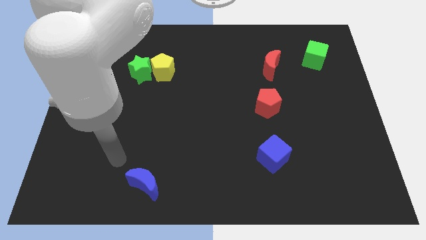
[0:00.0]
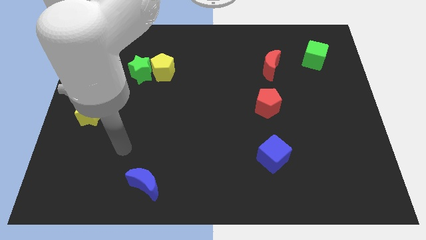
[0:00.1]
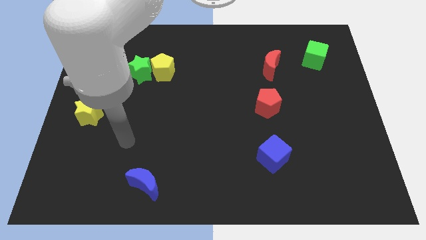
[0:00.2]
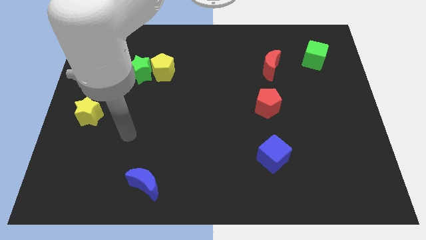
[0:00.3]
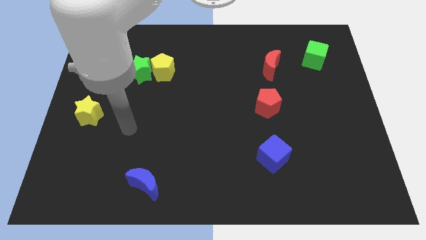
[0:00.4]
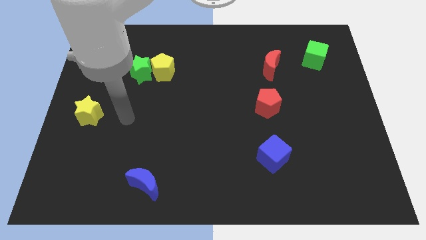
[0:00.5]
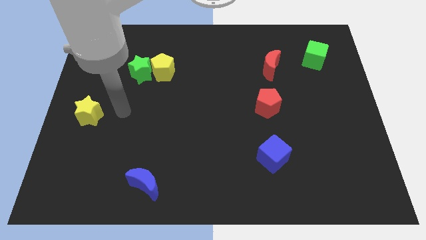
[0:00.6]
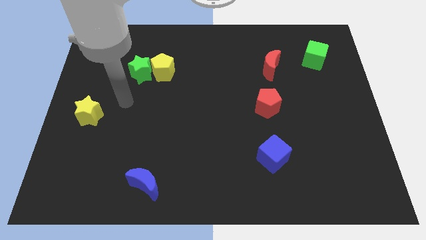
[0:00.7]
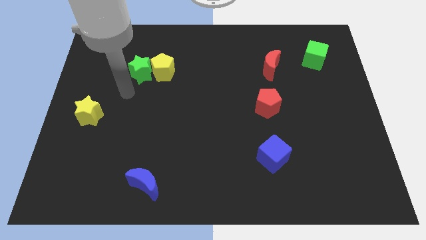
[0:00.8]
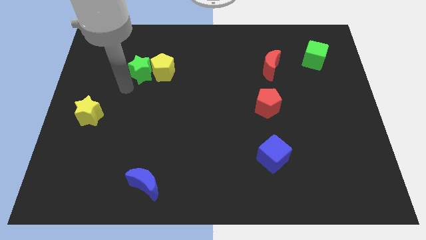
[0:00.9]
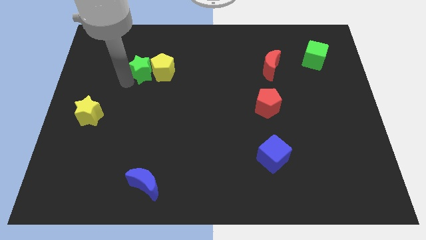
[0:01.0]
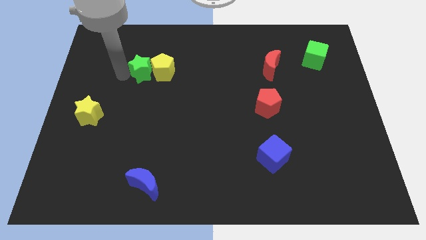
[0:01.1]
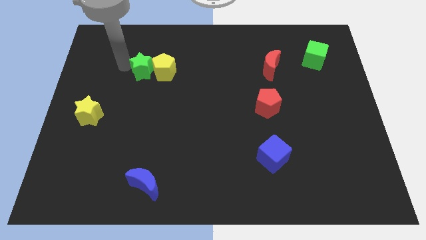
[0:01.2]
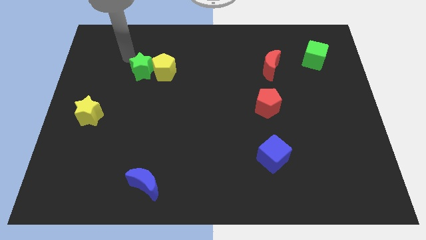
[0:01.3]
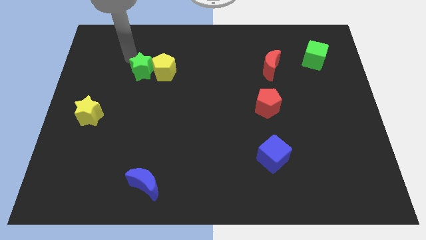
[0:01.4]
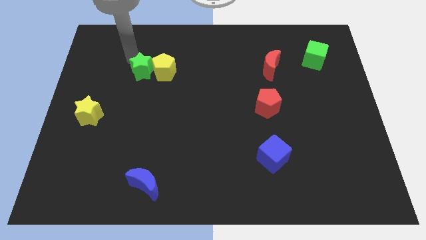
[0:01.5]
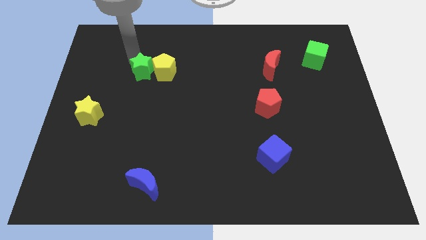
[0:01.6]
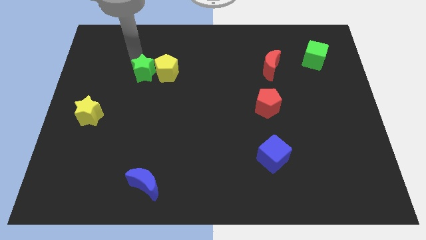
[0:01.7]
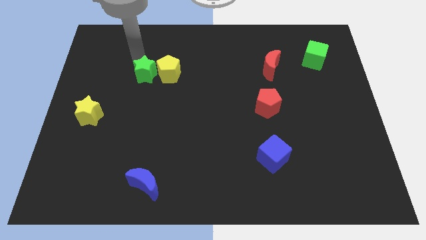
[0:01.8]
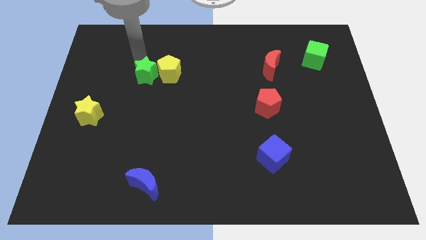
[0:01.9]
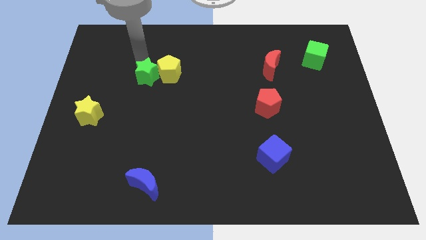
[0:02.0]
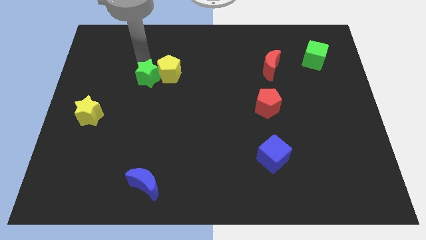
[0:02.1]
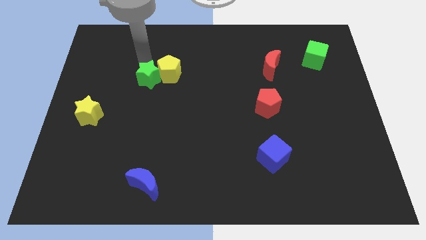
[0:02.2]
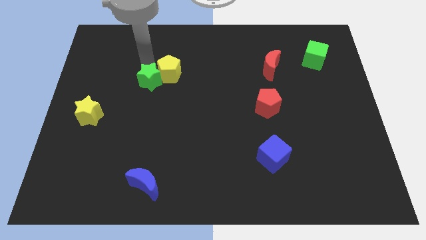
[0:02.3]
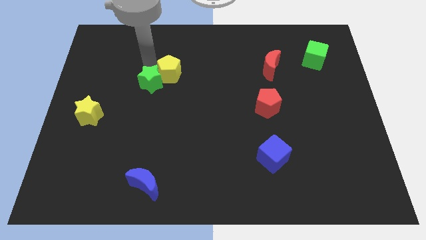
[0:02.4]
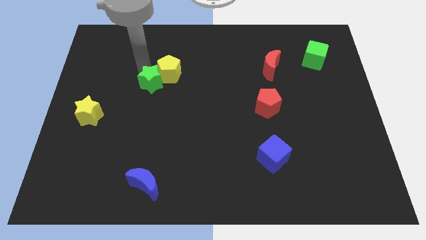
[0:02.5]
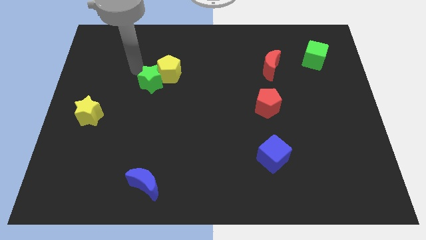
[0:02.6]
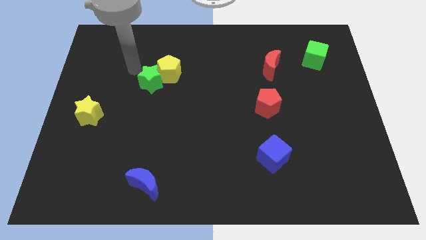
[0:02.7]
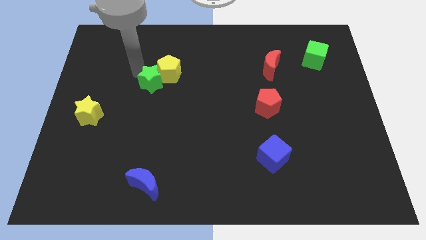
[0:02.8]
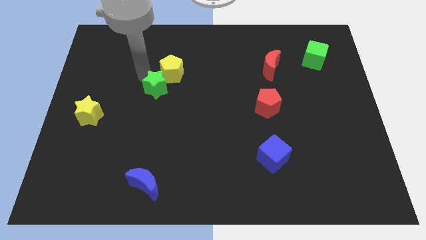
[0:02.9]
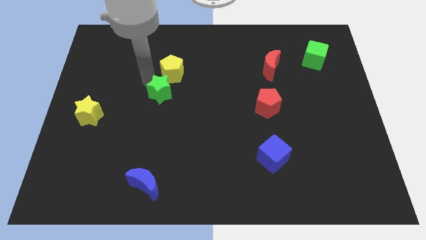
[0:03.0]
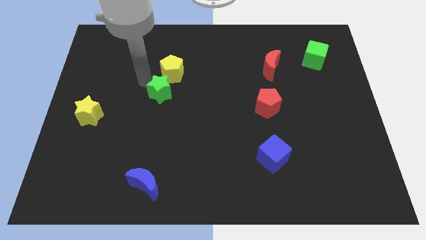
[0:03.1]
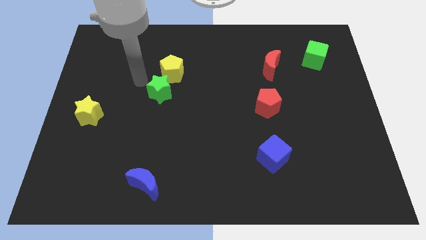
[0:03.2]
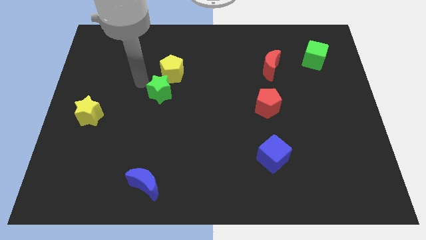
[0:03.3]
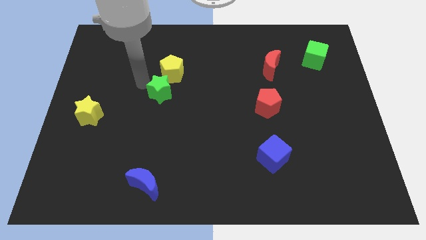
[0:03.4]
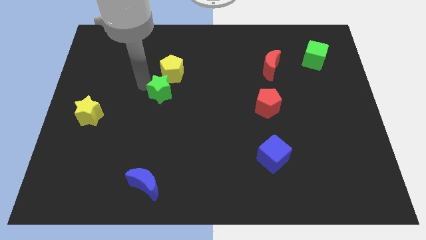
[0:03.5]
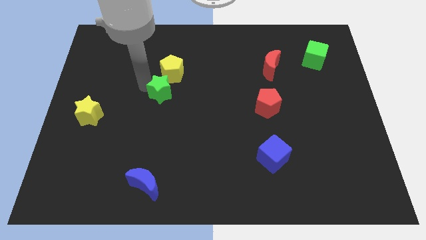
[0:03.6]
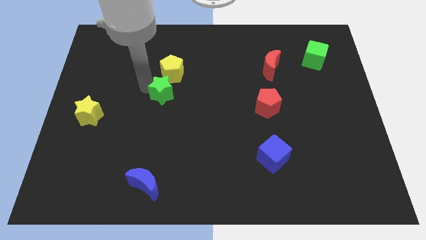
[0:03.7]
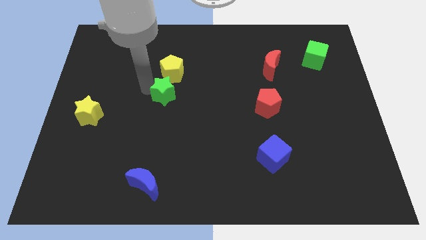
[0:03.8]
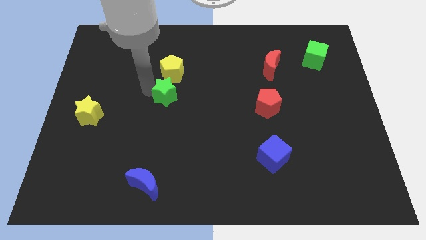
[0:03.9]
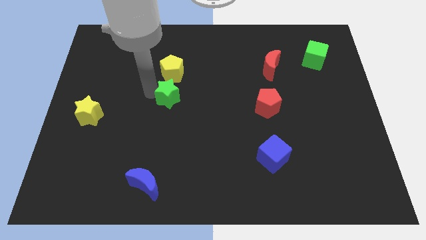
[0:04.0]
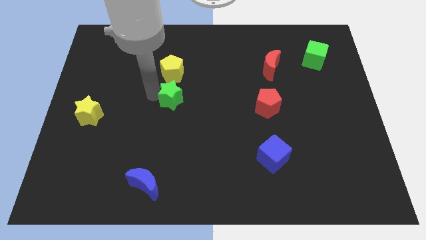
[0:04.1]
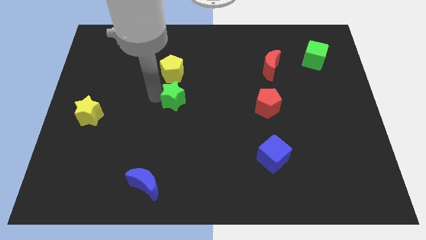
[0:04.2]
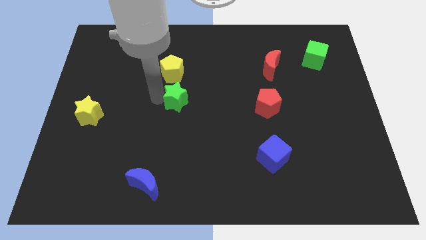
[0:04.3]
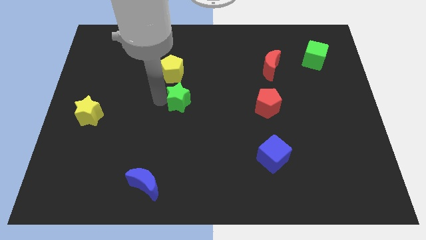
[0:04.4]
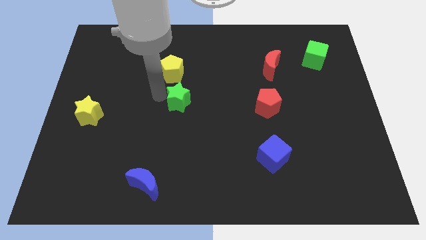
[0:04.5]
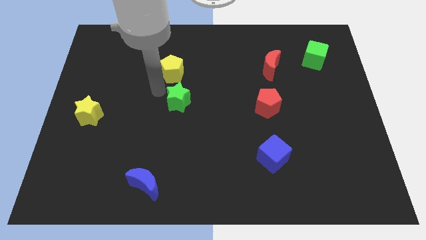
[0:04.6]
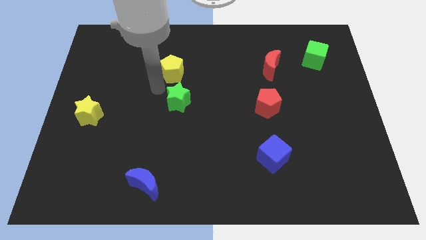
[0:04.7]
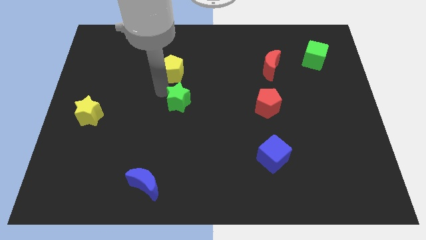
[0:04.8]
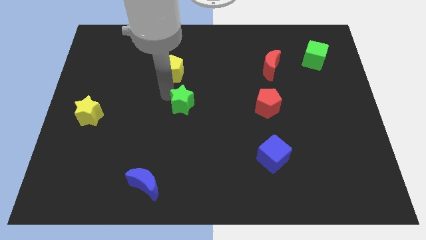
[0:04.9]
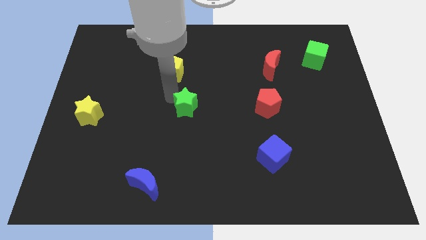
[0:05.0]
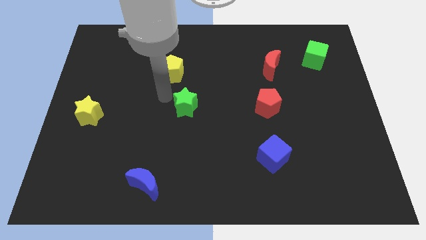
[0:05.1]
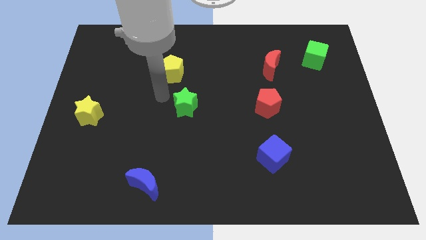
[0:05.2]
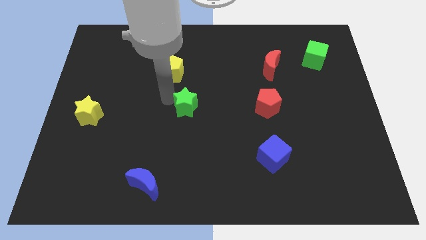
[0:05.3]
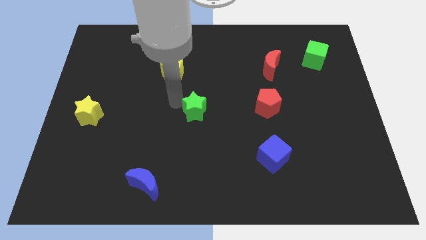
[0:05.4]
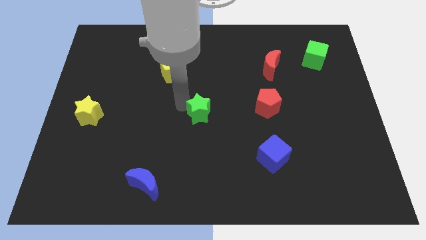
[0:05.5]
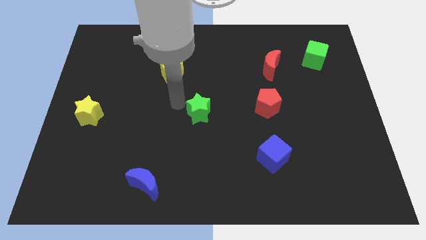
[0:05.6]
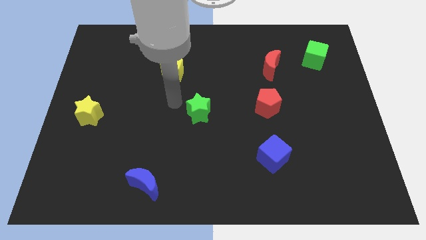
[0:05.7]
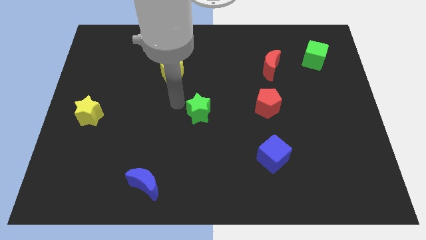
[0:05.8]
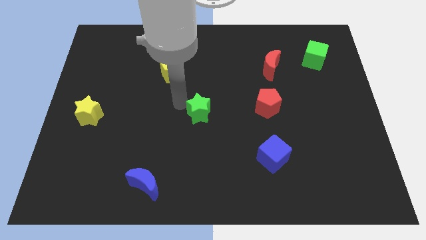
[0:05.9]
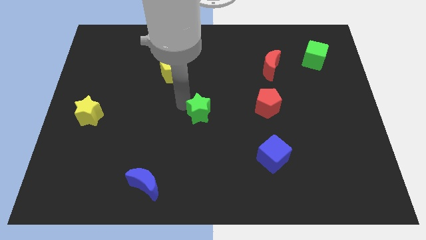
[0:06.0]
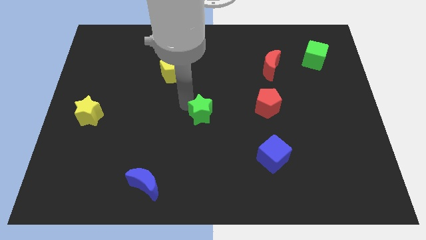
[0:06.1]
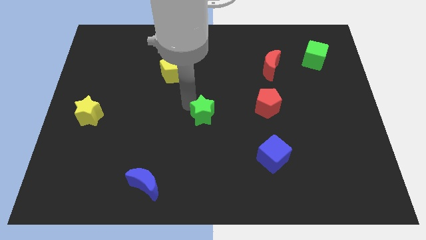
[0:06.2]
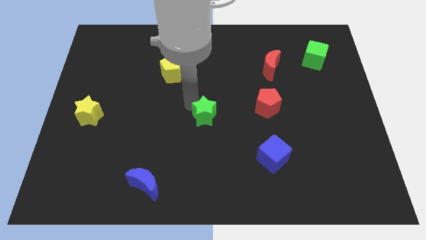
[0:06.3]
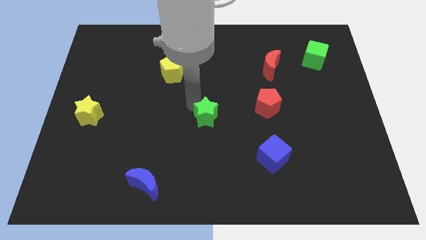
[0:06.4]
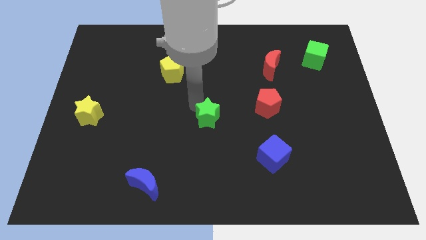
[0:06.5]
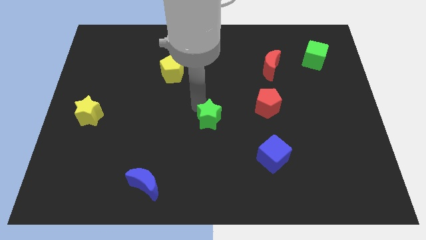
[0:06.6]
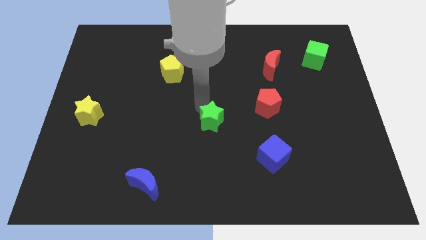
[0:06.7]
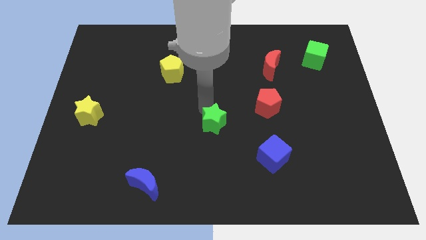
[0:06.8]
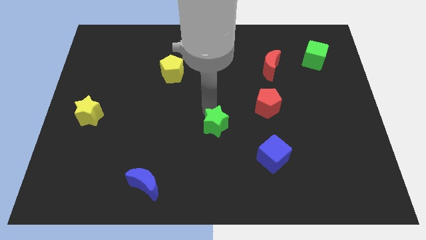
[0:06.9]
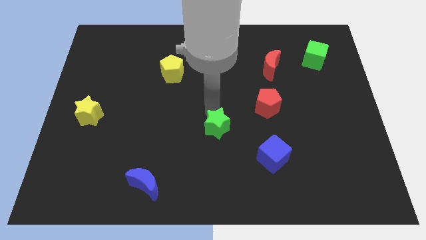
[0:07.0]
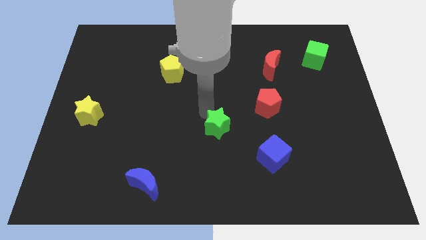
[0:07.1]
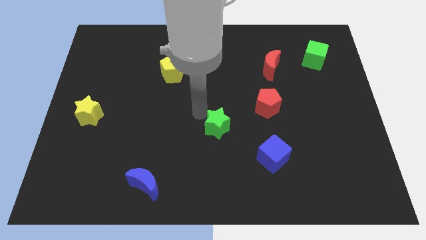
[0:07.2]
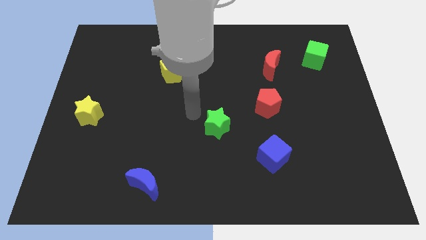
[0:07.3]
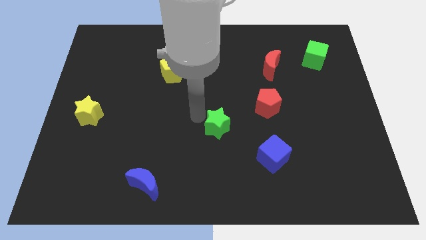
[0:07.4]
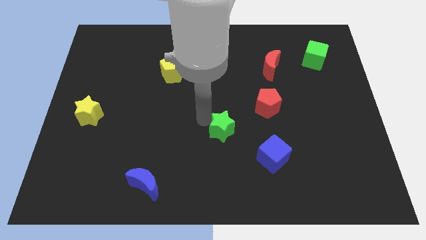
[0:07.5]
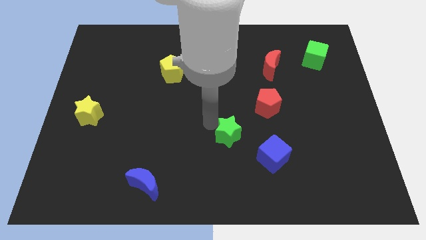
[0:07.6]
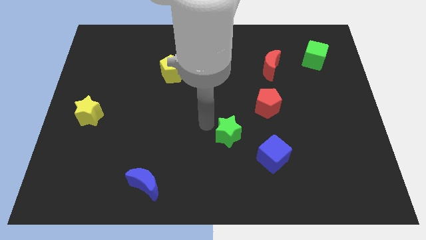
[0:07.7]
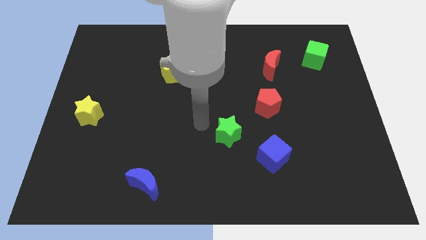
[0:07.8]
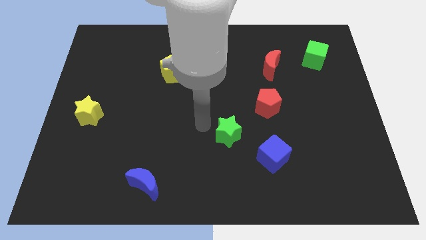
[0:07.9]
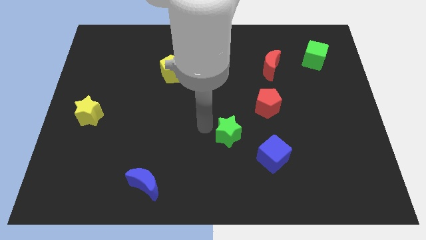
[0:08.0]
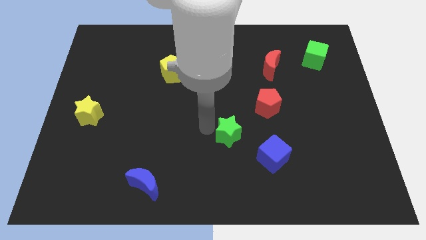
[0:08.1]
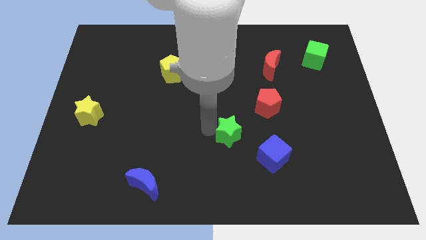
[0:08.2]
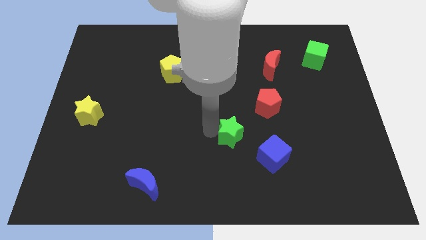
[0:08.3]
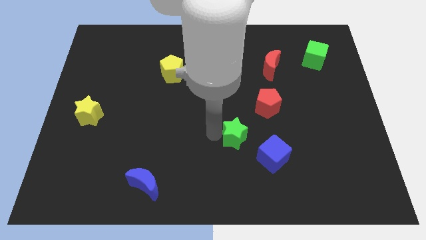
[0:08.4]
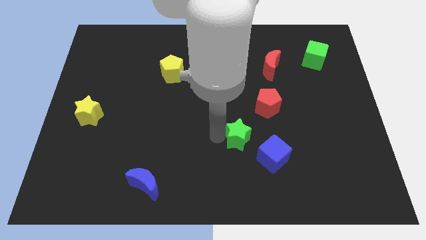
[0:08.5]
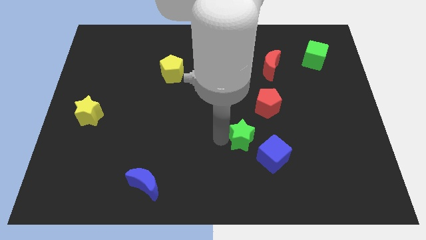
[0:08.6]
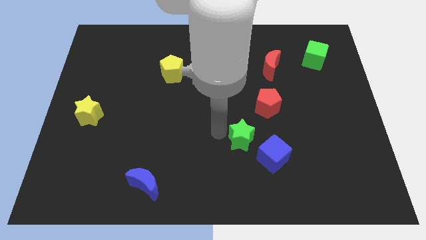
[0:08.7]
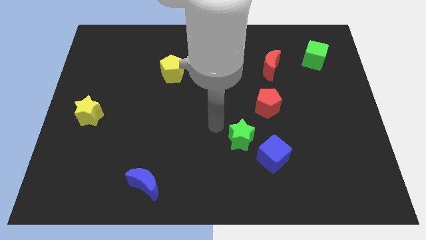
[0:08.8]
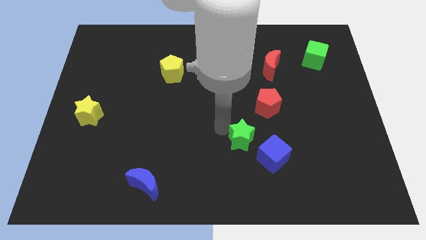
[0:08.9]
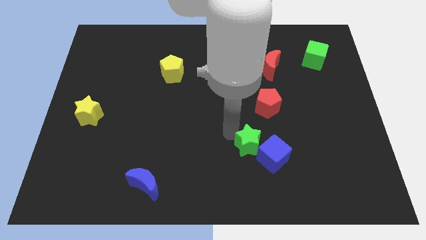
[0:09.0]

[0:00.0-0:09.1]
move the green star towards the blue cube
